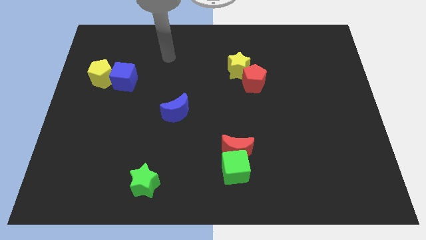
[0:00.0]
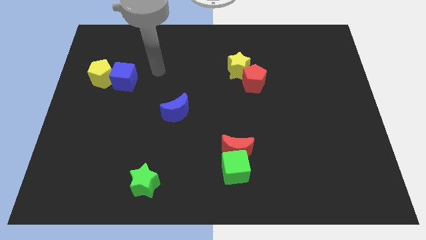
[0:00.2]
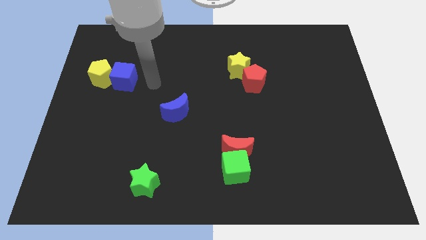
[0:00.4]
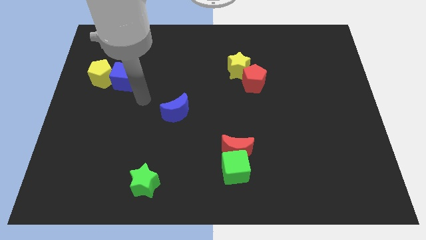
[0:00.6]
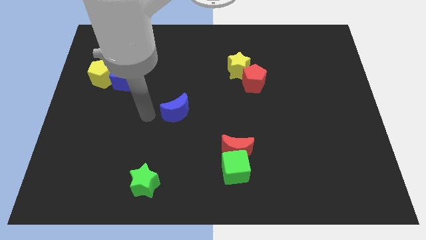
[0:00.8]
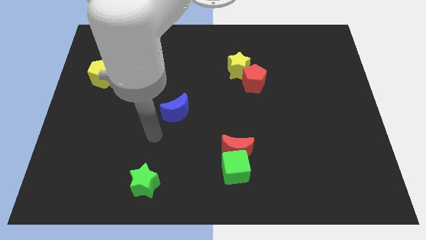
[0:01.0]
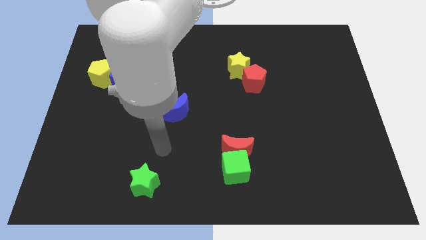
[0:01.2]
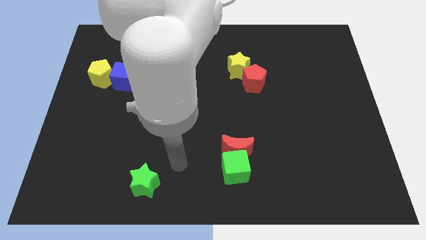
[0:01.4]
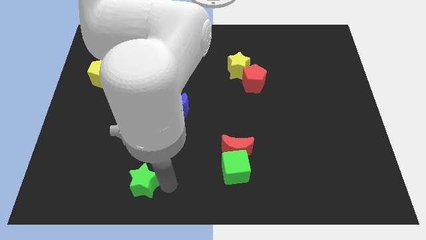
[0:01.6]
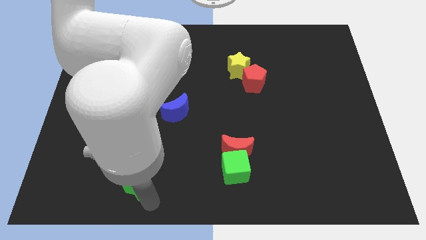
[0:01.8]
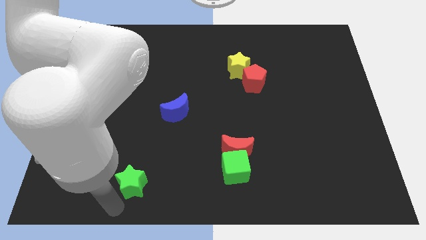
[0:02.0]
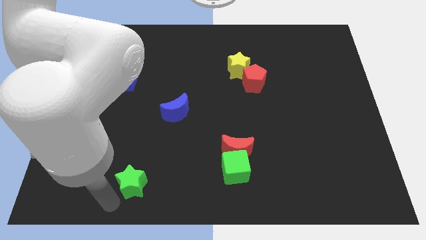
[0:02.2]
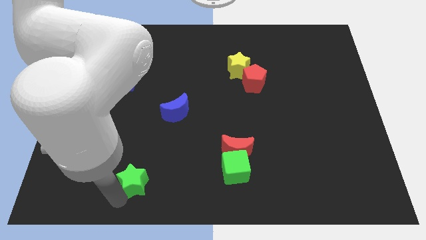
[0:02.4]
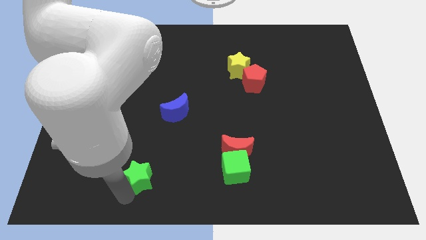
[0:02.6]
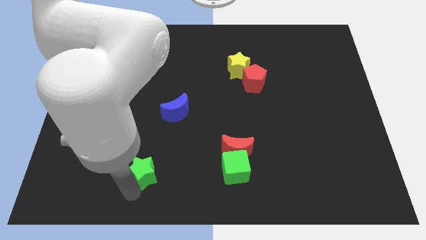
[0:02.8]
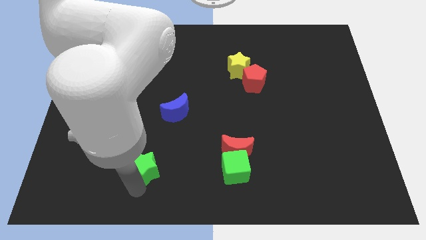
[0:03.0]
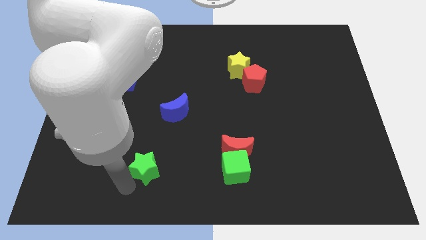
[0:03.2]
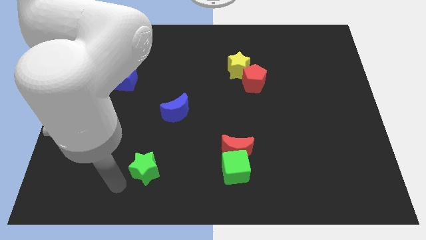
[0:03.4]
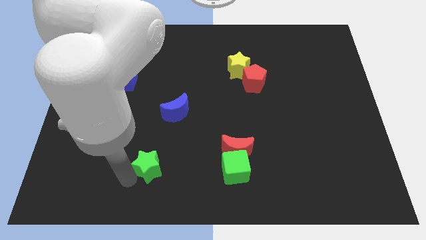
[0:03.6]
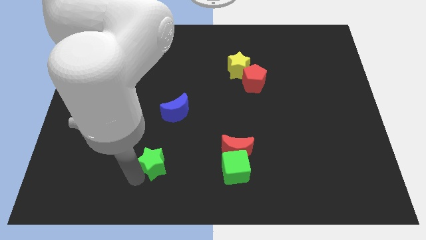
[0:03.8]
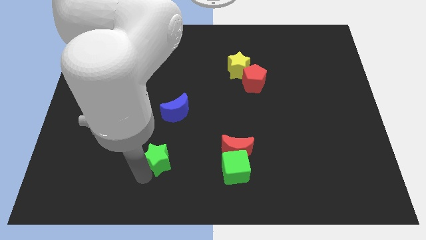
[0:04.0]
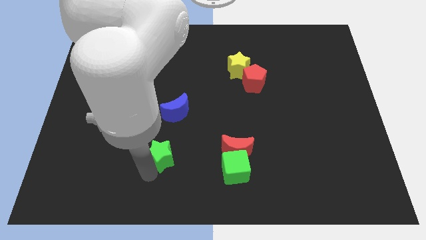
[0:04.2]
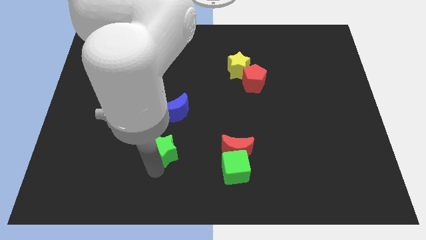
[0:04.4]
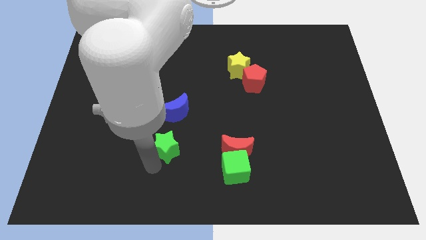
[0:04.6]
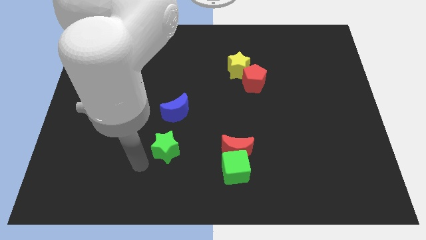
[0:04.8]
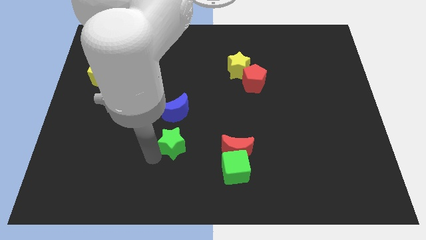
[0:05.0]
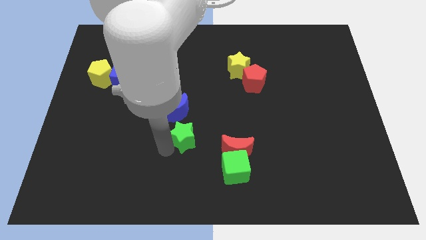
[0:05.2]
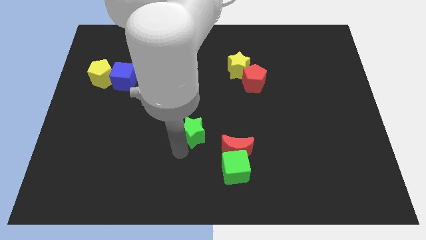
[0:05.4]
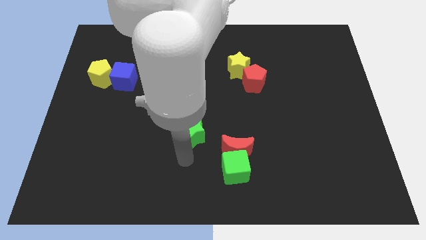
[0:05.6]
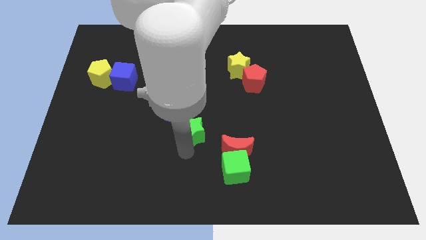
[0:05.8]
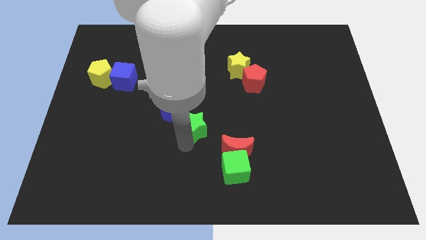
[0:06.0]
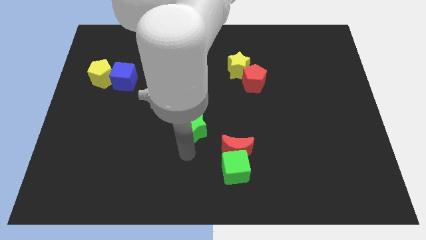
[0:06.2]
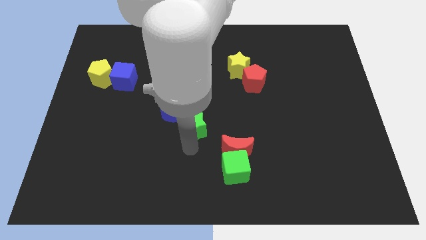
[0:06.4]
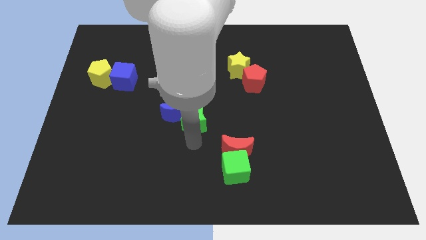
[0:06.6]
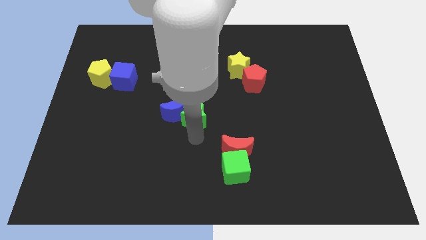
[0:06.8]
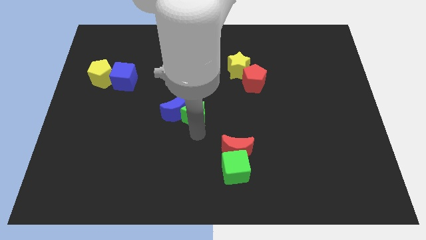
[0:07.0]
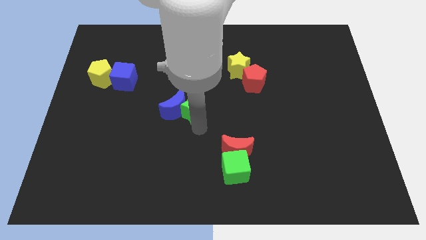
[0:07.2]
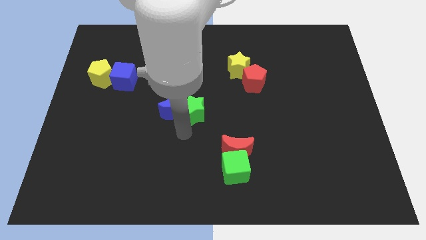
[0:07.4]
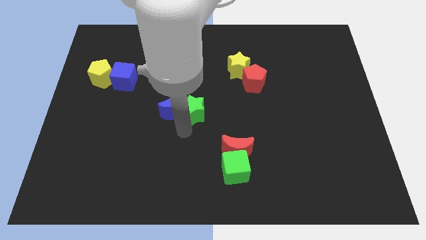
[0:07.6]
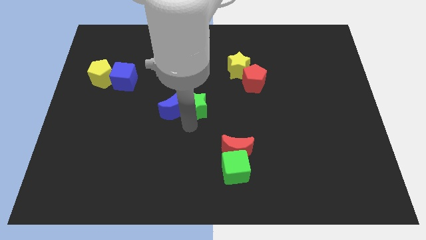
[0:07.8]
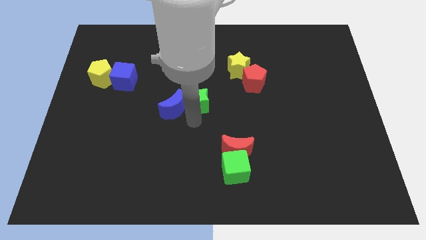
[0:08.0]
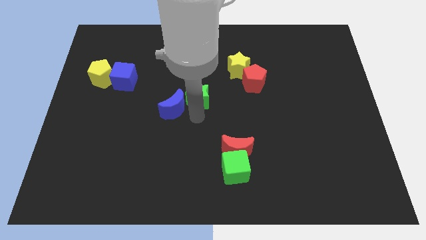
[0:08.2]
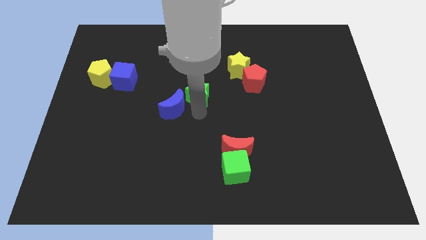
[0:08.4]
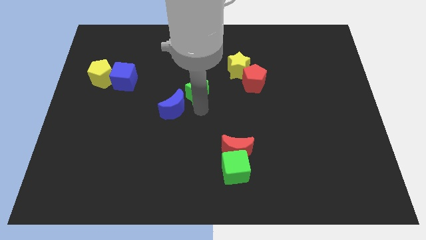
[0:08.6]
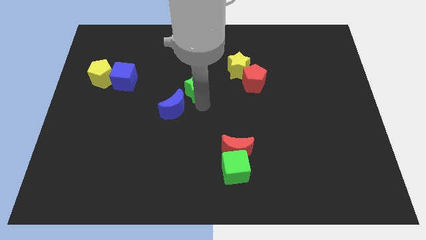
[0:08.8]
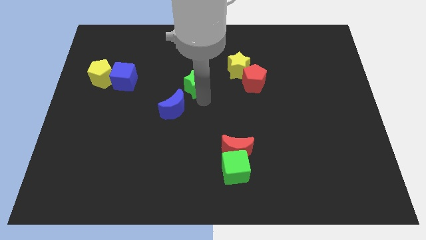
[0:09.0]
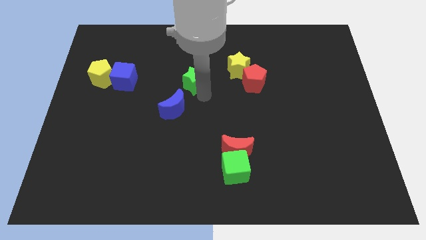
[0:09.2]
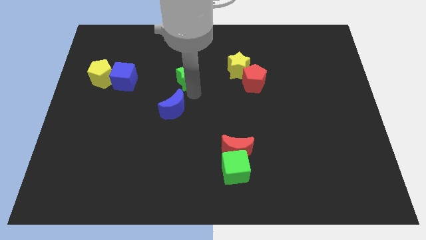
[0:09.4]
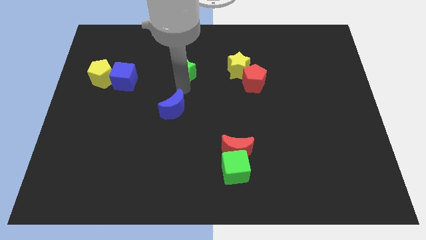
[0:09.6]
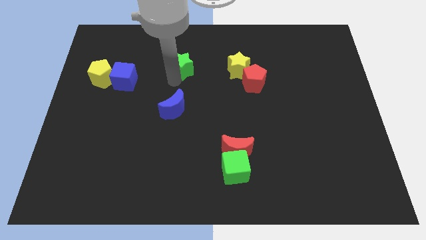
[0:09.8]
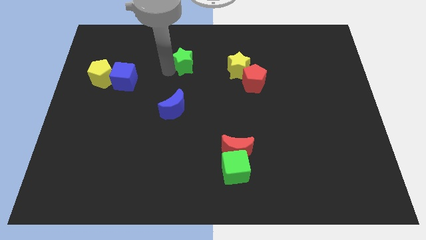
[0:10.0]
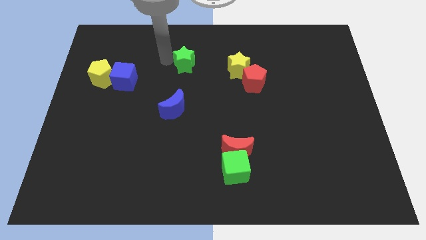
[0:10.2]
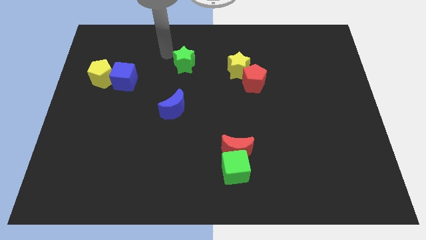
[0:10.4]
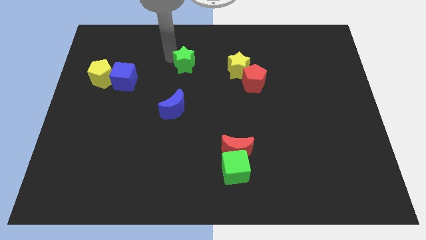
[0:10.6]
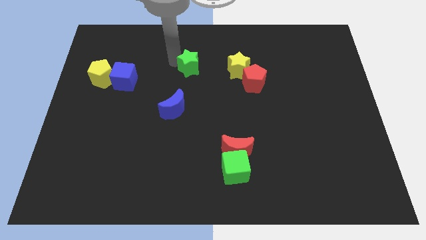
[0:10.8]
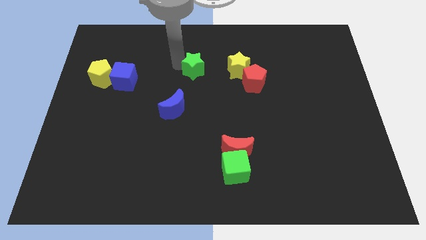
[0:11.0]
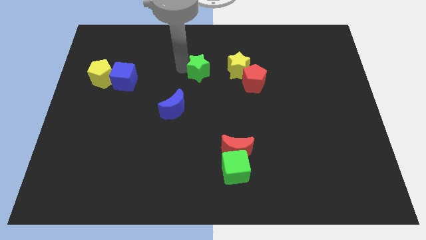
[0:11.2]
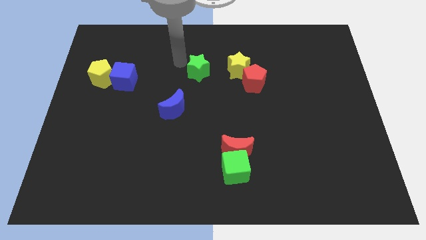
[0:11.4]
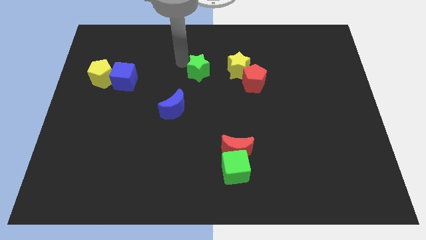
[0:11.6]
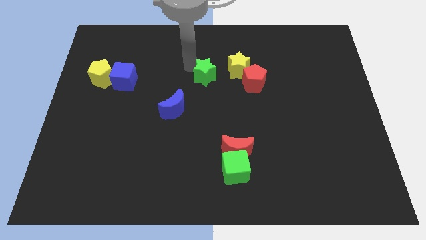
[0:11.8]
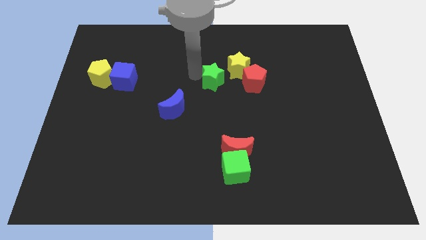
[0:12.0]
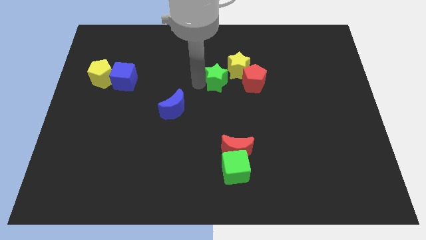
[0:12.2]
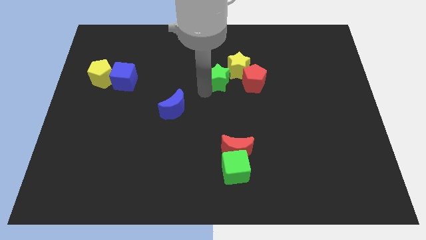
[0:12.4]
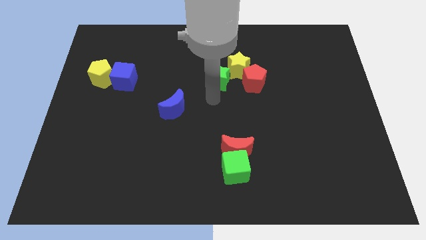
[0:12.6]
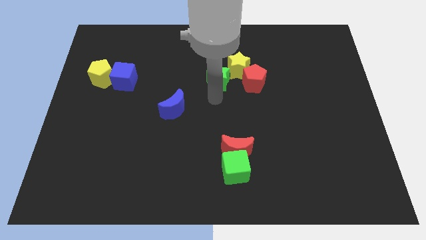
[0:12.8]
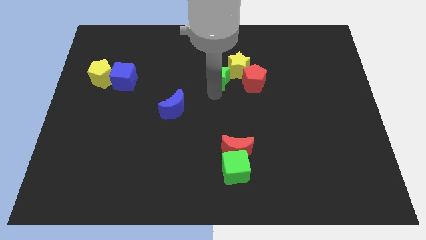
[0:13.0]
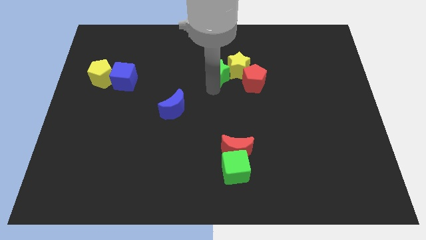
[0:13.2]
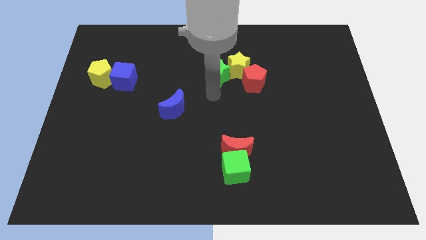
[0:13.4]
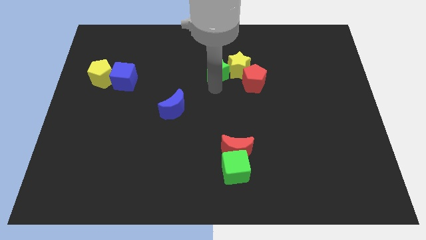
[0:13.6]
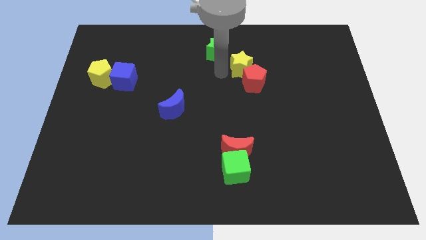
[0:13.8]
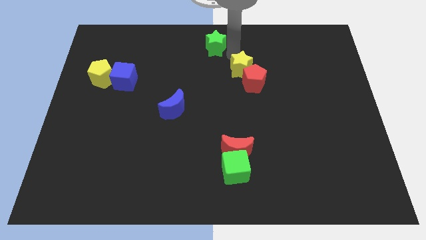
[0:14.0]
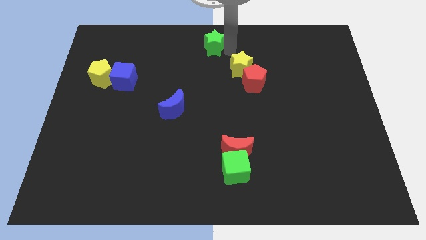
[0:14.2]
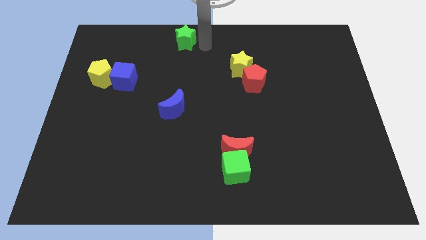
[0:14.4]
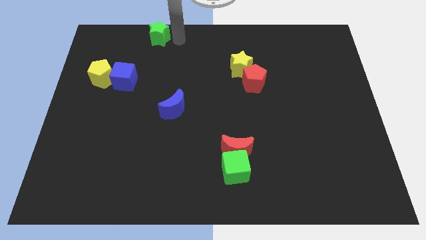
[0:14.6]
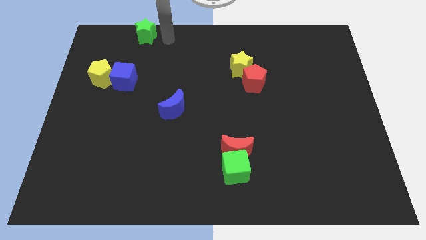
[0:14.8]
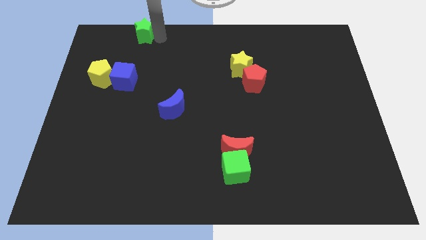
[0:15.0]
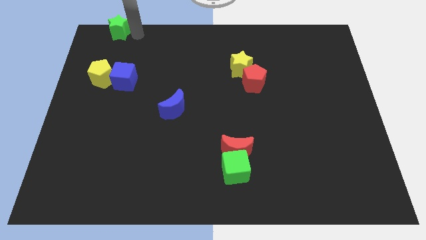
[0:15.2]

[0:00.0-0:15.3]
move the green star to the upper left corner
